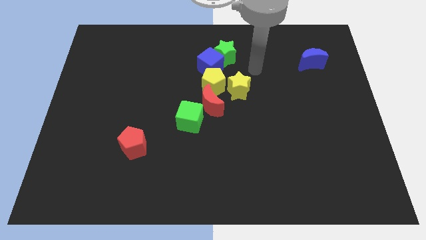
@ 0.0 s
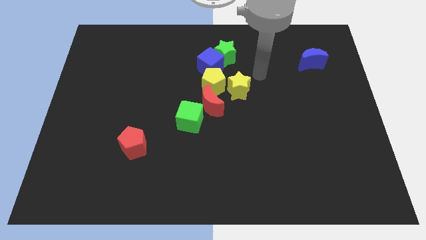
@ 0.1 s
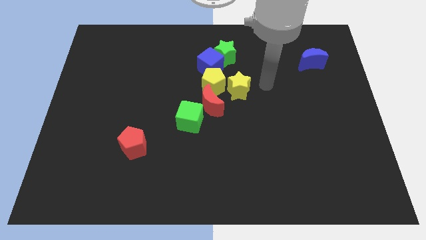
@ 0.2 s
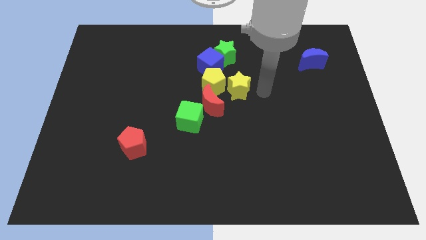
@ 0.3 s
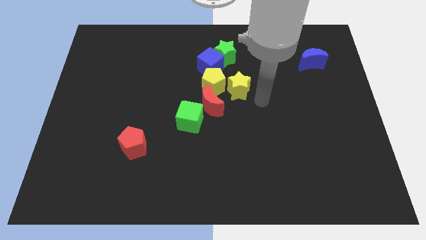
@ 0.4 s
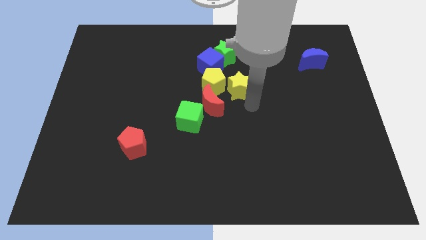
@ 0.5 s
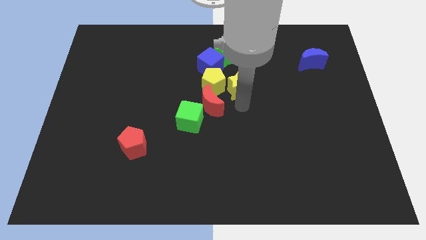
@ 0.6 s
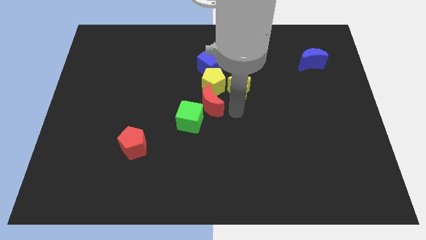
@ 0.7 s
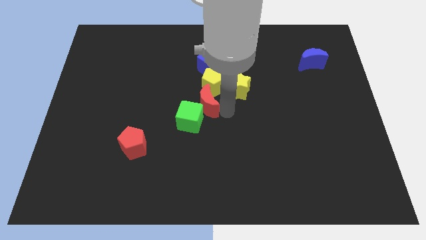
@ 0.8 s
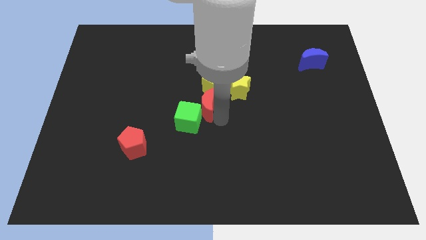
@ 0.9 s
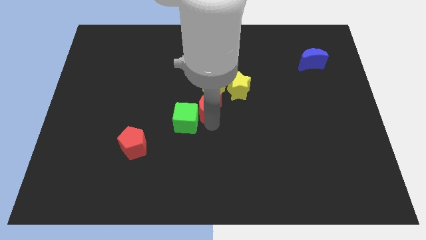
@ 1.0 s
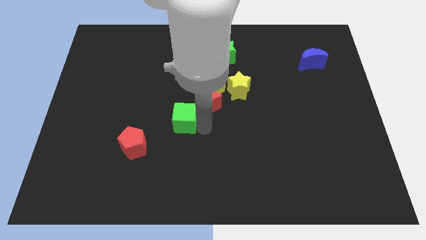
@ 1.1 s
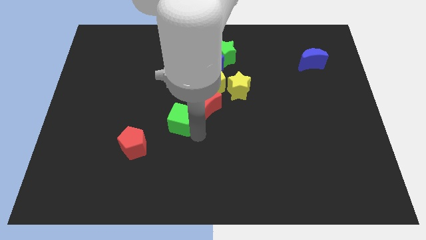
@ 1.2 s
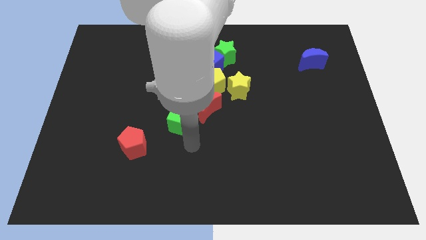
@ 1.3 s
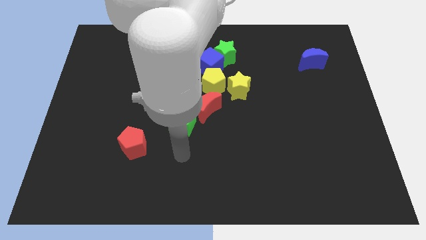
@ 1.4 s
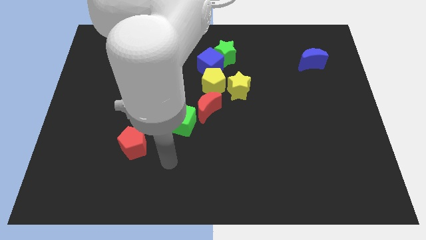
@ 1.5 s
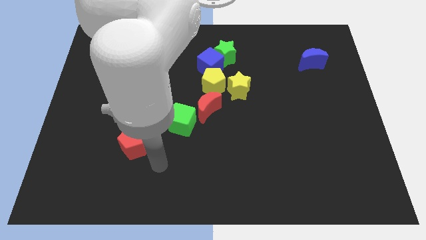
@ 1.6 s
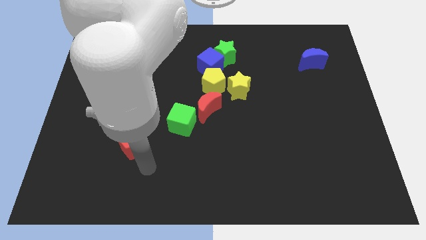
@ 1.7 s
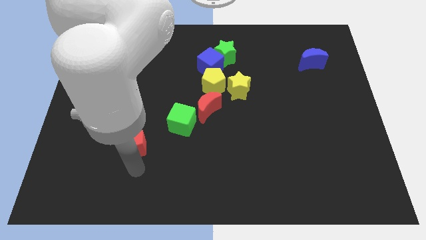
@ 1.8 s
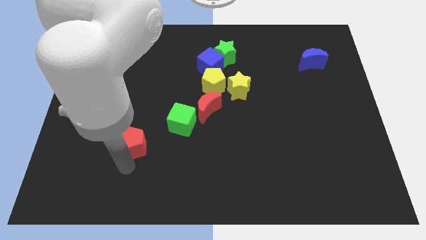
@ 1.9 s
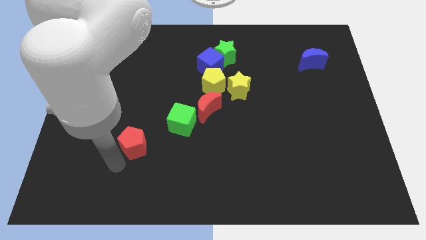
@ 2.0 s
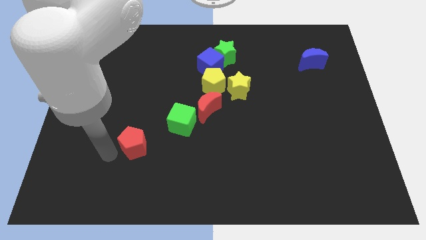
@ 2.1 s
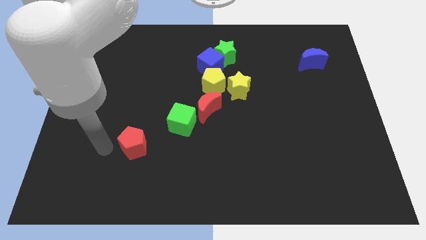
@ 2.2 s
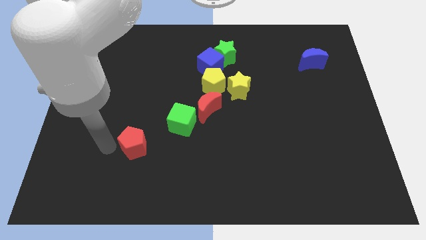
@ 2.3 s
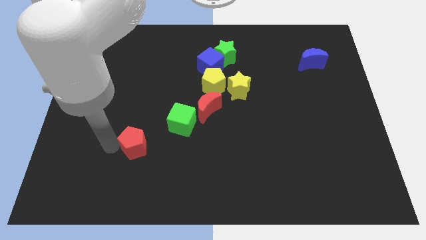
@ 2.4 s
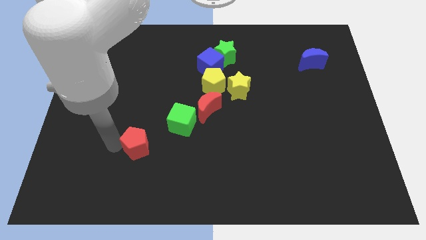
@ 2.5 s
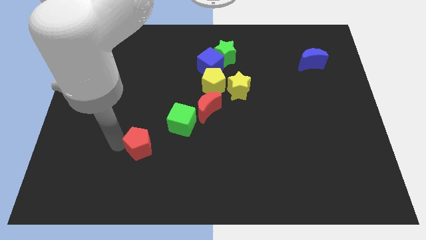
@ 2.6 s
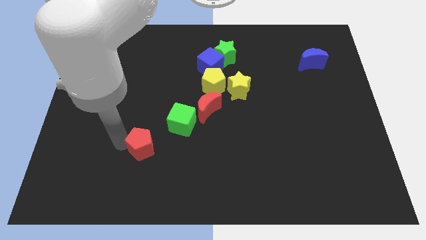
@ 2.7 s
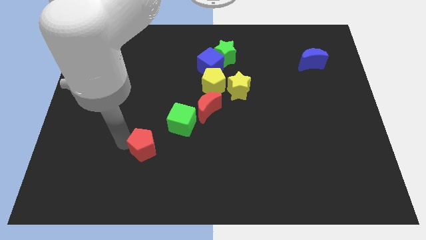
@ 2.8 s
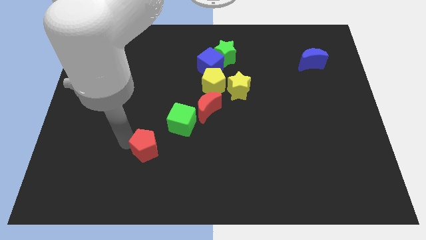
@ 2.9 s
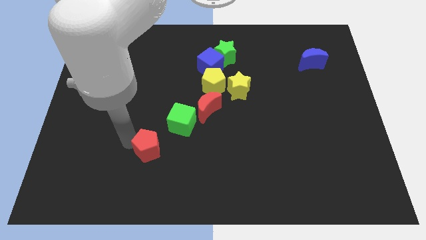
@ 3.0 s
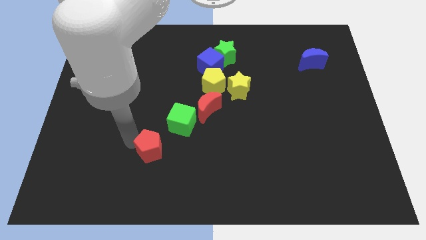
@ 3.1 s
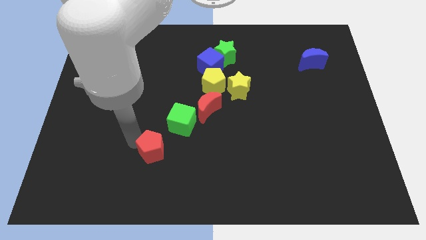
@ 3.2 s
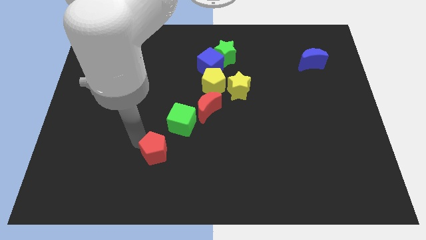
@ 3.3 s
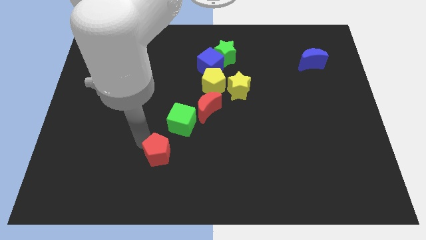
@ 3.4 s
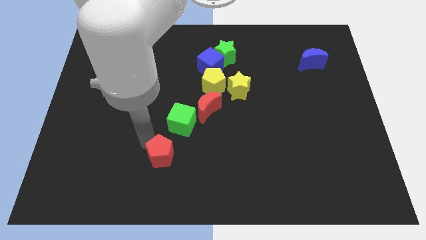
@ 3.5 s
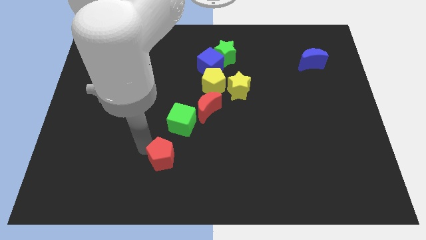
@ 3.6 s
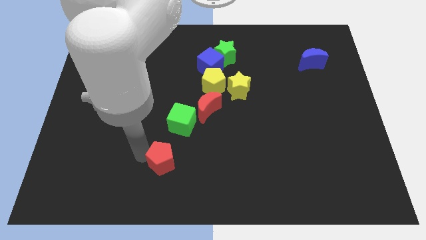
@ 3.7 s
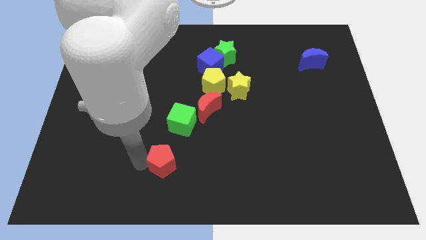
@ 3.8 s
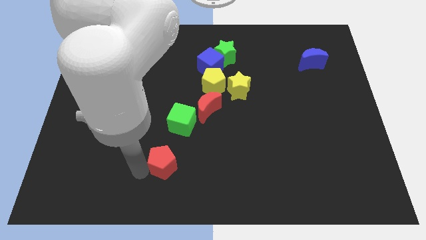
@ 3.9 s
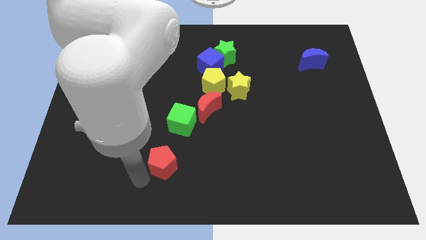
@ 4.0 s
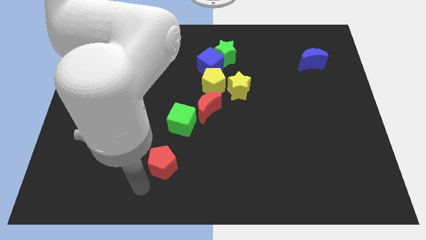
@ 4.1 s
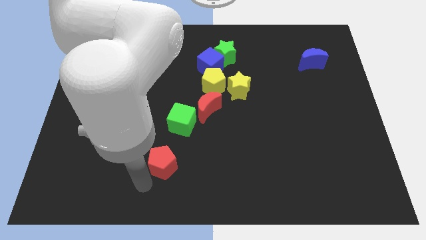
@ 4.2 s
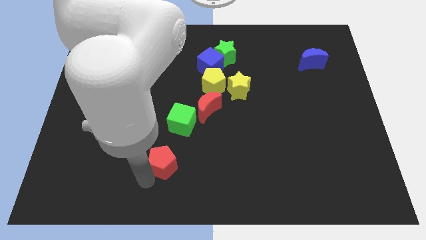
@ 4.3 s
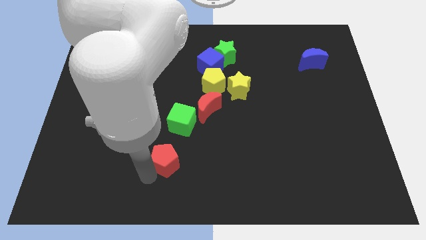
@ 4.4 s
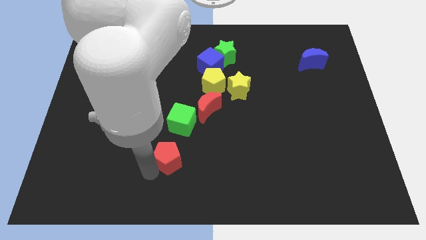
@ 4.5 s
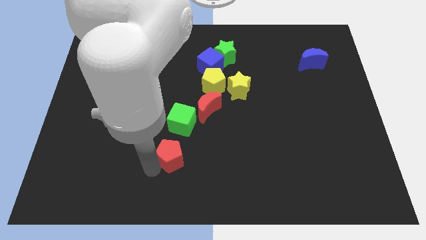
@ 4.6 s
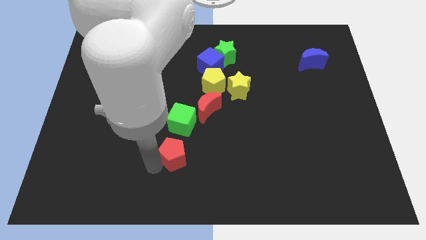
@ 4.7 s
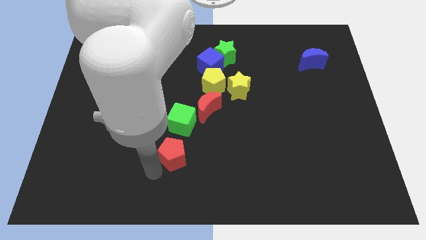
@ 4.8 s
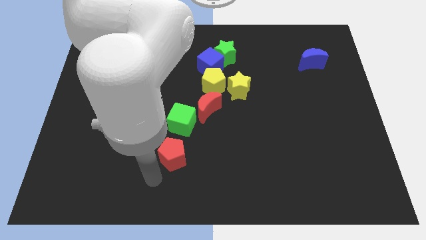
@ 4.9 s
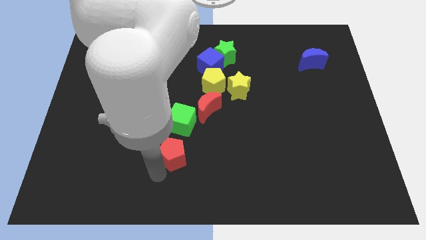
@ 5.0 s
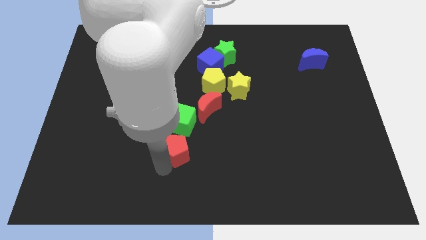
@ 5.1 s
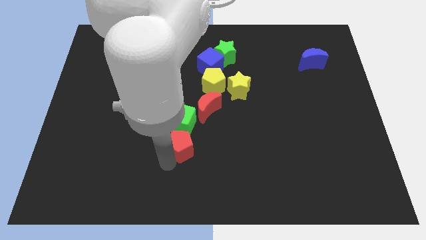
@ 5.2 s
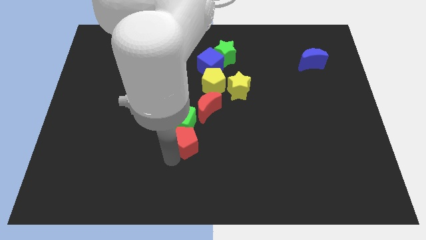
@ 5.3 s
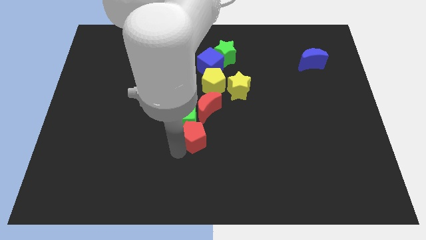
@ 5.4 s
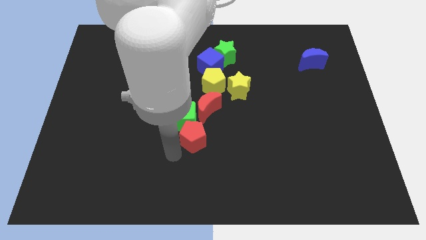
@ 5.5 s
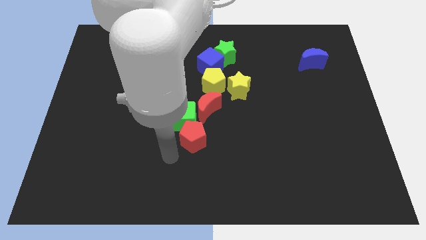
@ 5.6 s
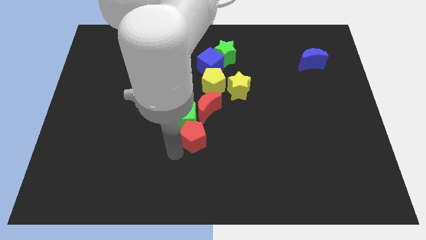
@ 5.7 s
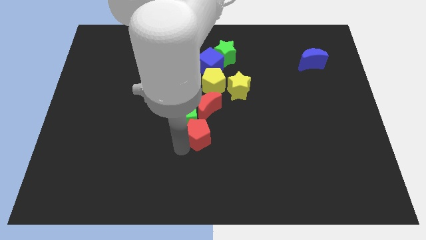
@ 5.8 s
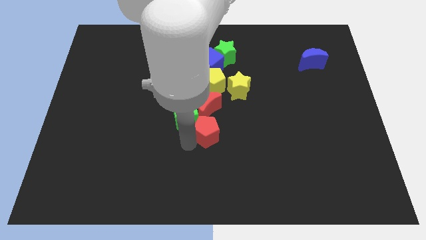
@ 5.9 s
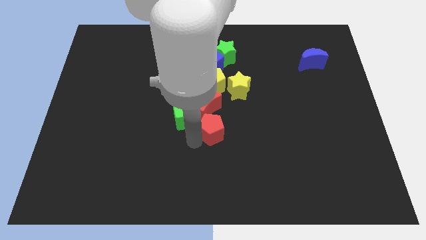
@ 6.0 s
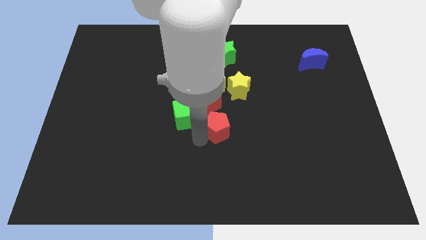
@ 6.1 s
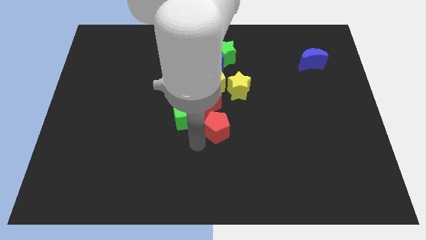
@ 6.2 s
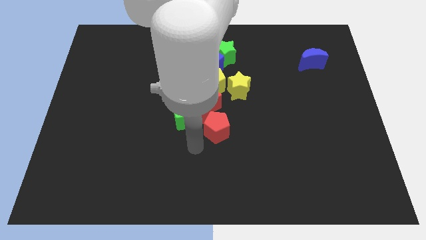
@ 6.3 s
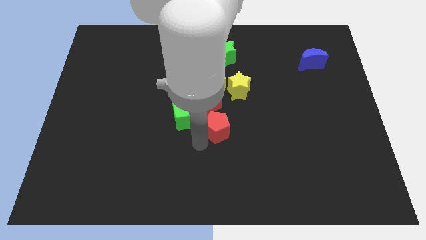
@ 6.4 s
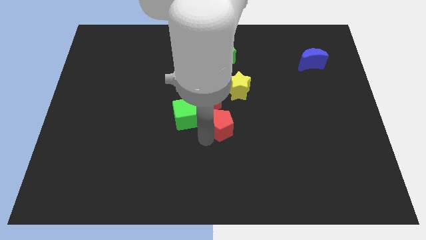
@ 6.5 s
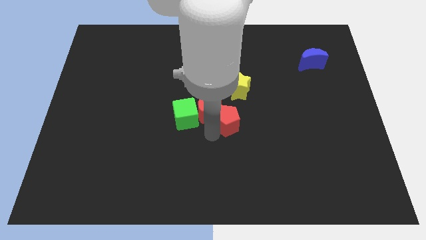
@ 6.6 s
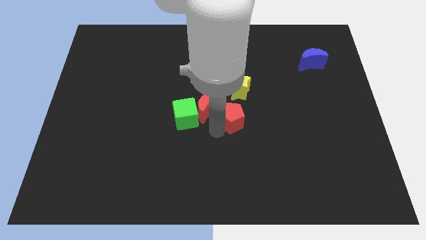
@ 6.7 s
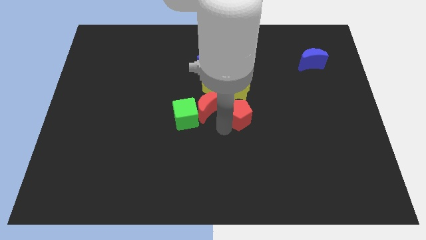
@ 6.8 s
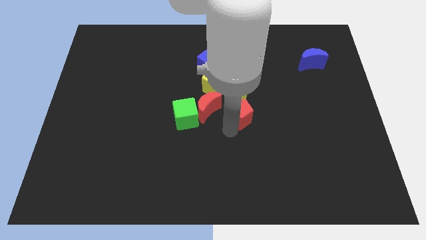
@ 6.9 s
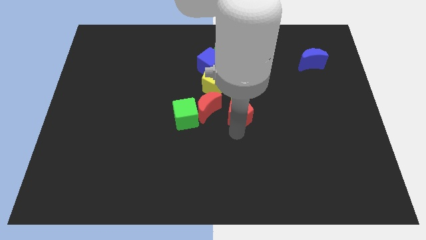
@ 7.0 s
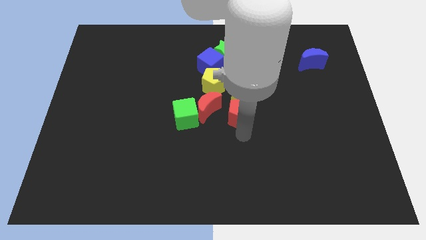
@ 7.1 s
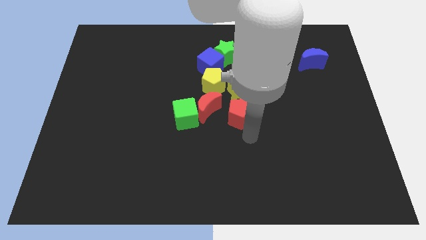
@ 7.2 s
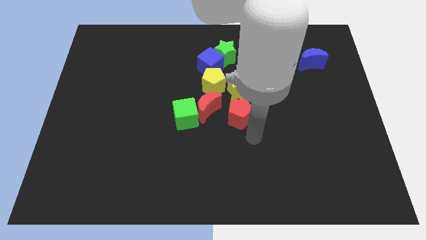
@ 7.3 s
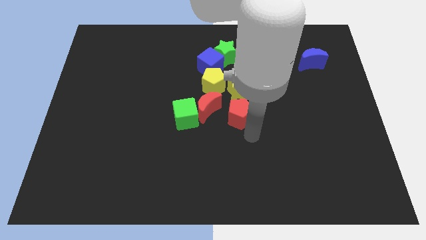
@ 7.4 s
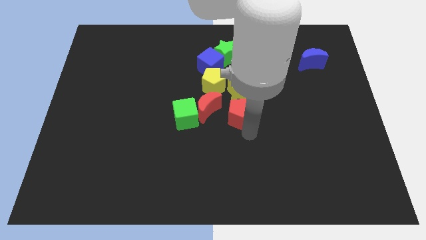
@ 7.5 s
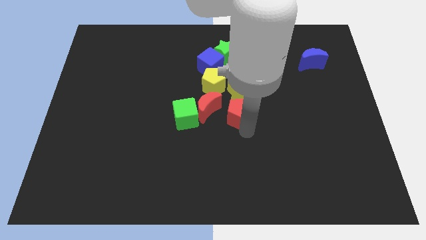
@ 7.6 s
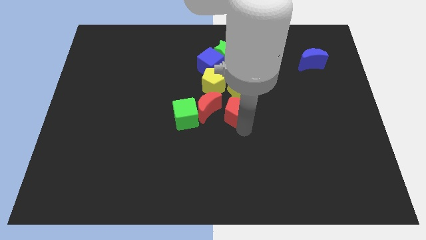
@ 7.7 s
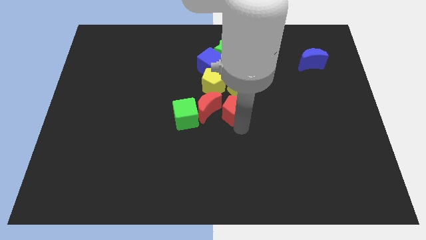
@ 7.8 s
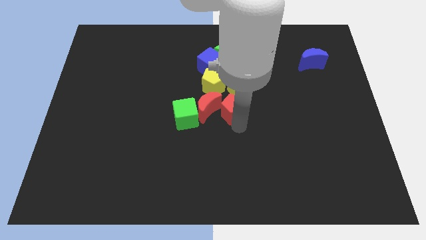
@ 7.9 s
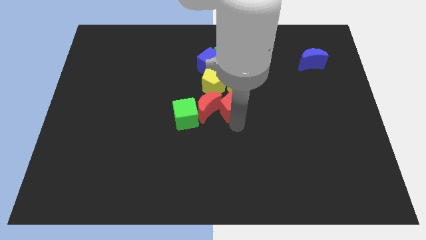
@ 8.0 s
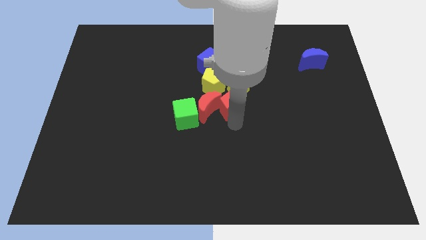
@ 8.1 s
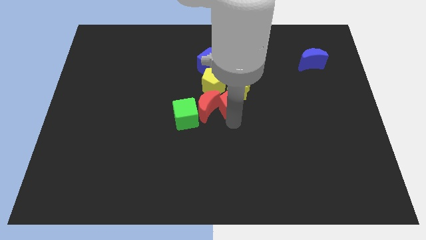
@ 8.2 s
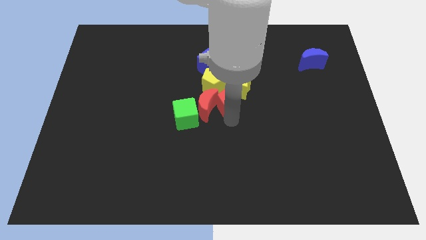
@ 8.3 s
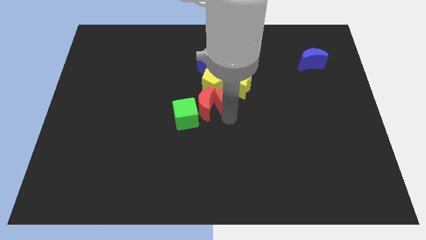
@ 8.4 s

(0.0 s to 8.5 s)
move the red pentagon to the bottom side of the green star
